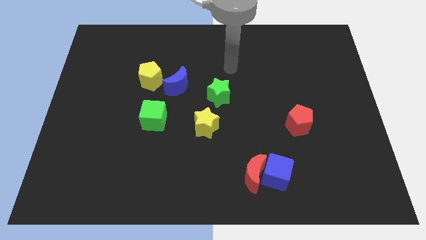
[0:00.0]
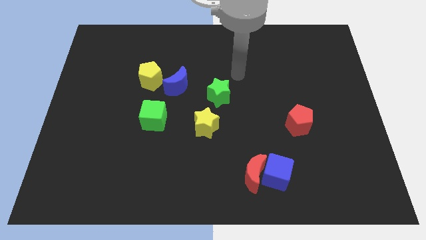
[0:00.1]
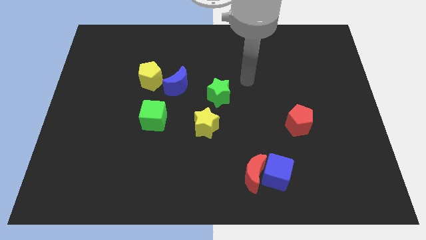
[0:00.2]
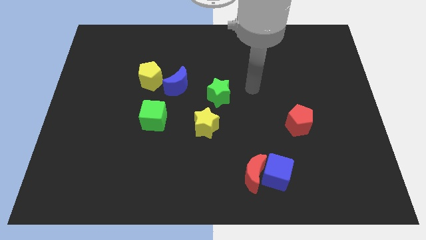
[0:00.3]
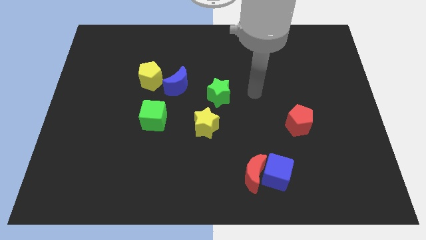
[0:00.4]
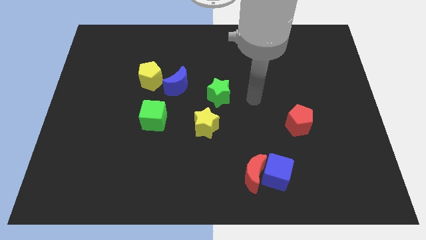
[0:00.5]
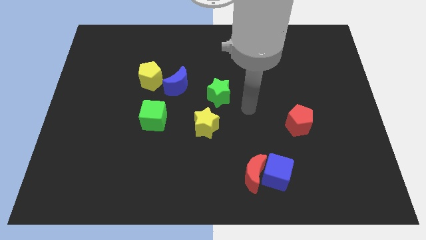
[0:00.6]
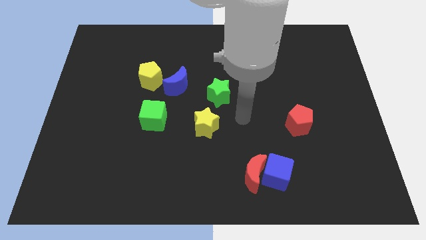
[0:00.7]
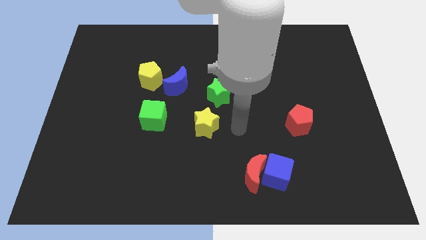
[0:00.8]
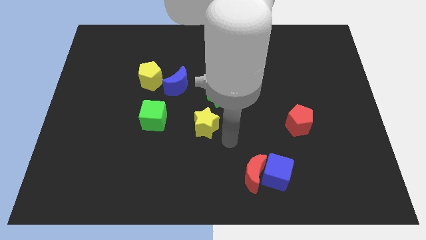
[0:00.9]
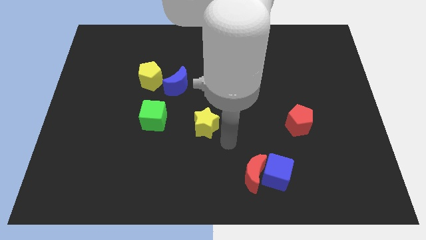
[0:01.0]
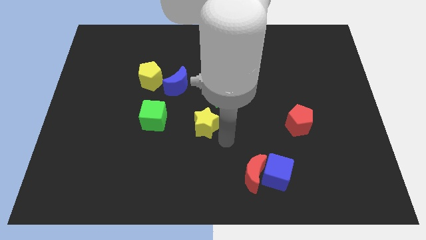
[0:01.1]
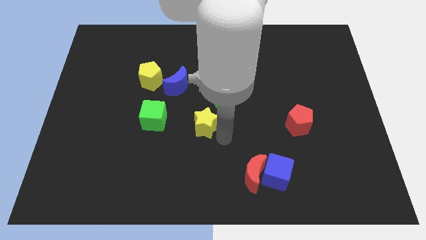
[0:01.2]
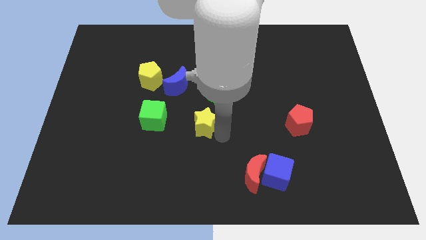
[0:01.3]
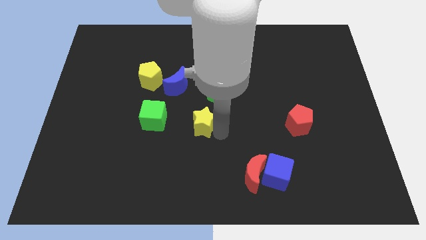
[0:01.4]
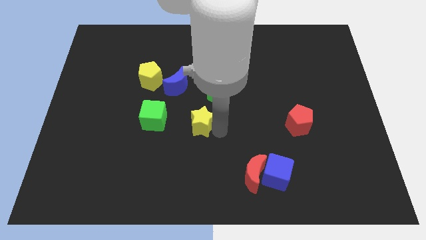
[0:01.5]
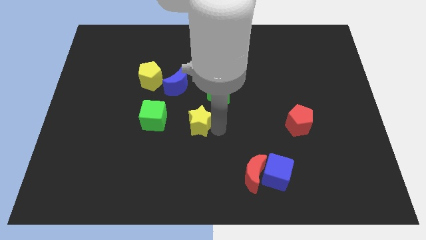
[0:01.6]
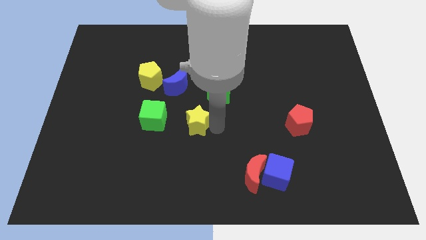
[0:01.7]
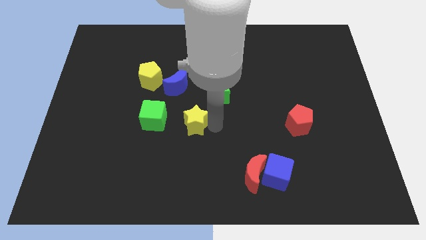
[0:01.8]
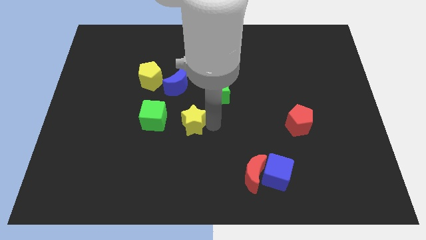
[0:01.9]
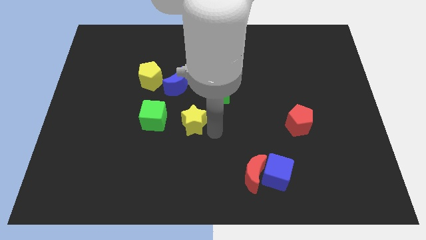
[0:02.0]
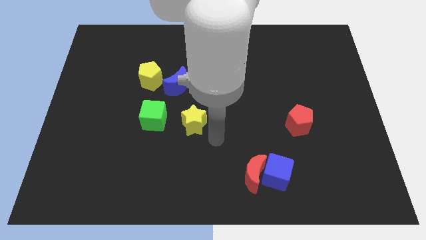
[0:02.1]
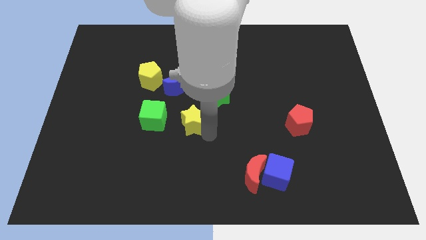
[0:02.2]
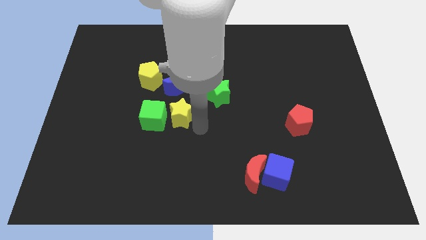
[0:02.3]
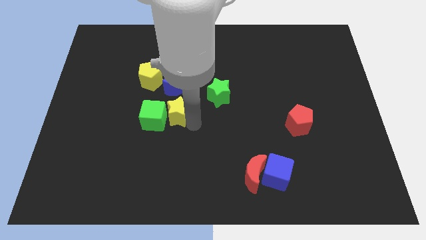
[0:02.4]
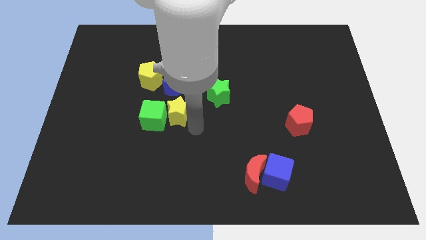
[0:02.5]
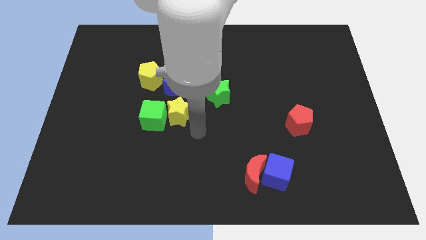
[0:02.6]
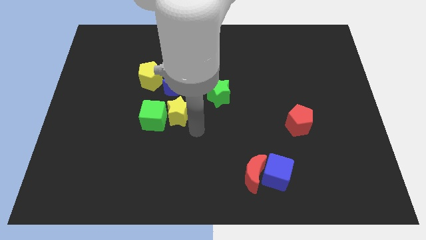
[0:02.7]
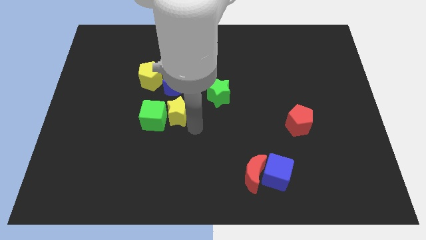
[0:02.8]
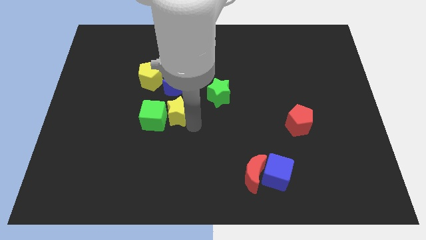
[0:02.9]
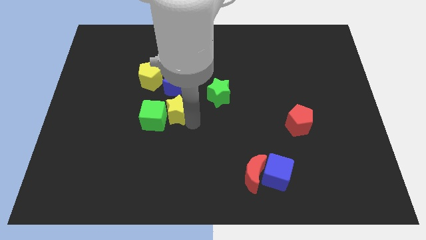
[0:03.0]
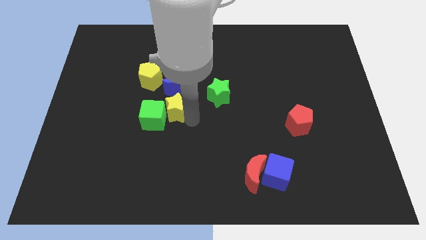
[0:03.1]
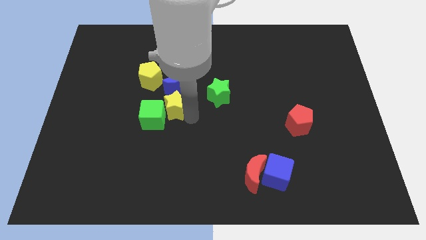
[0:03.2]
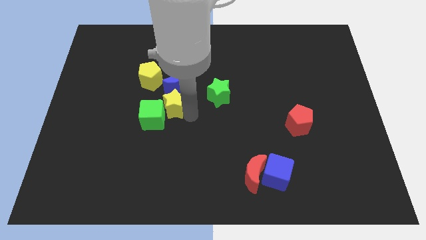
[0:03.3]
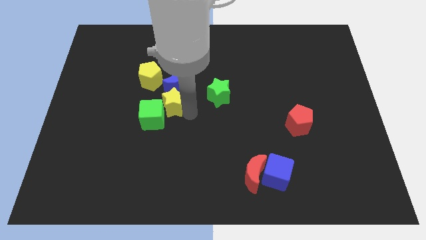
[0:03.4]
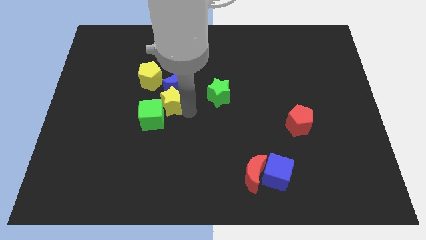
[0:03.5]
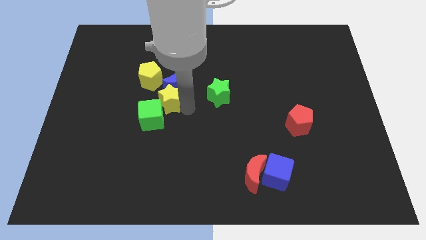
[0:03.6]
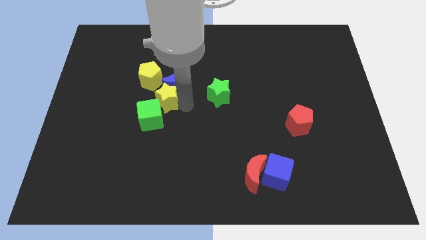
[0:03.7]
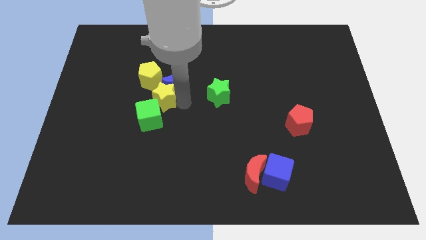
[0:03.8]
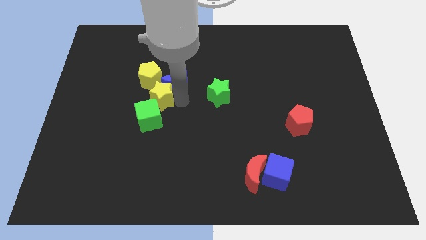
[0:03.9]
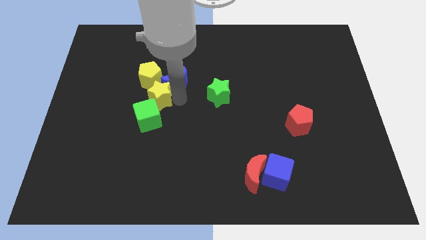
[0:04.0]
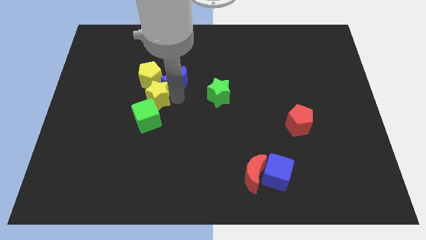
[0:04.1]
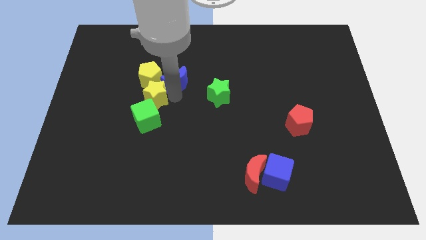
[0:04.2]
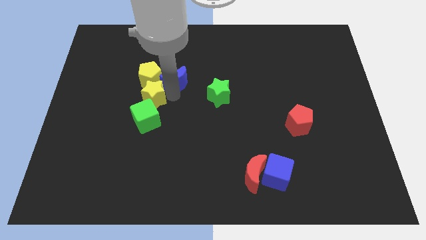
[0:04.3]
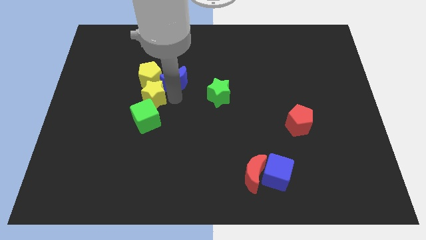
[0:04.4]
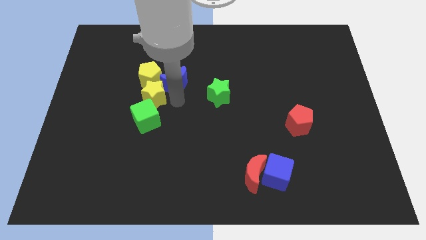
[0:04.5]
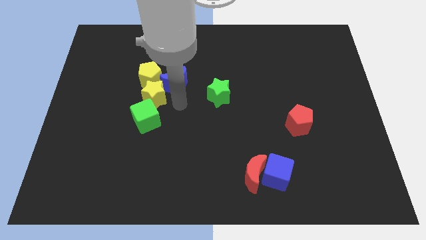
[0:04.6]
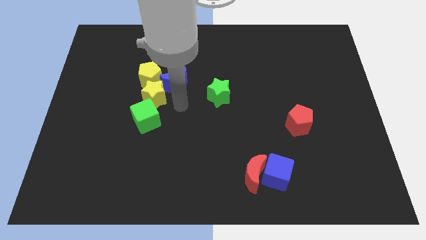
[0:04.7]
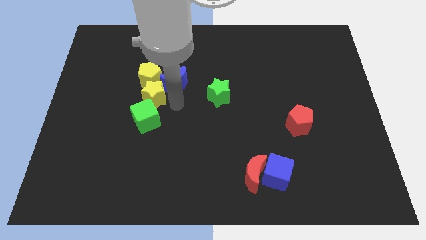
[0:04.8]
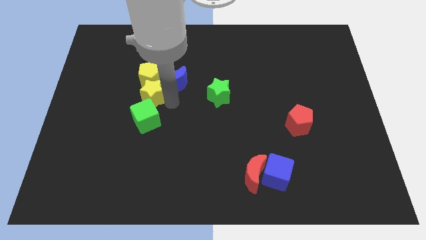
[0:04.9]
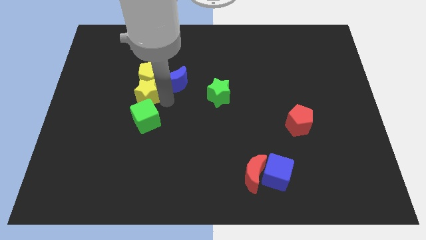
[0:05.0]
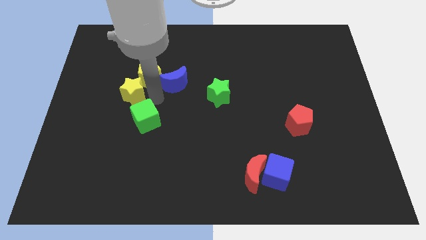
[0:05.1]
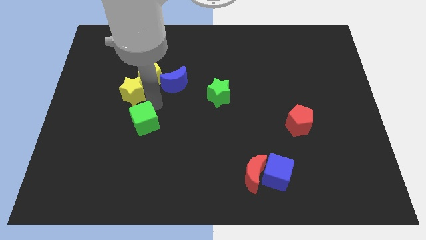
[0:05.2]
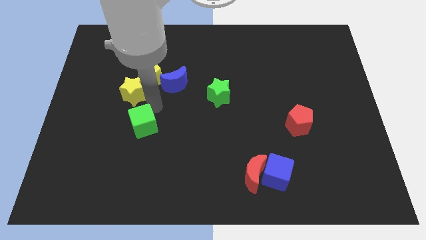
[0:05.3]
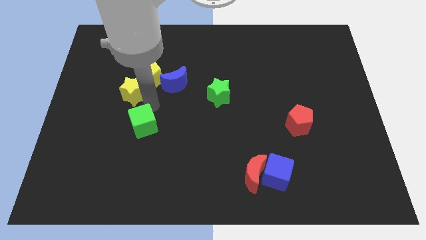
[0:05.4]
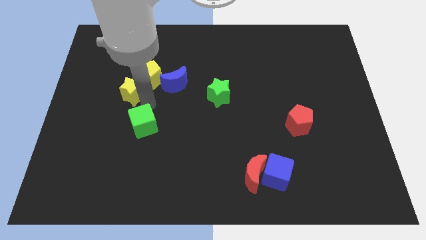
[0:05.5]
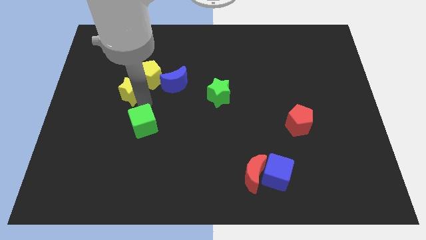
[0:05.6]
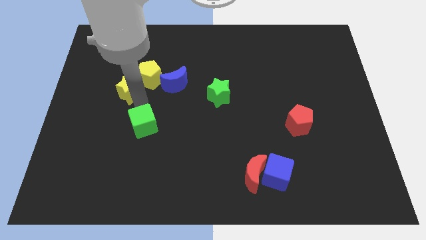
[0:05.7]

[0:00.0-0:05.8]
slide the yellow star left of the yellow pentagon

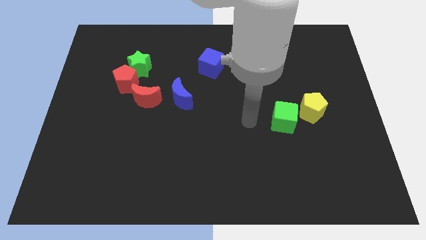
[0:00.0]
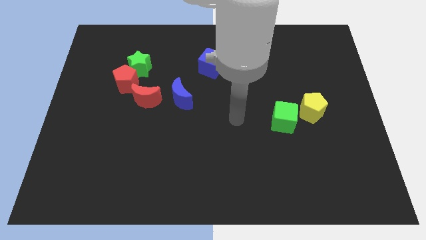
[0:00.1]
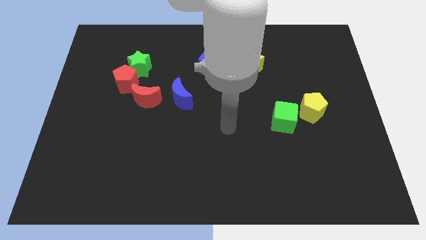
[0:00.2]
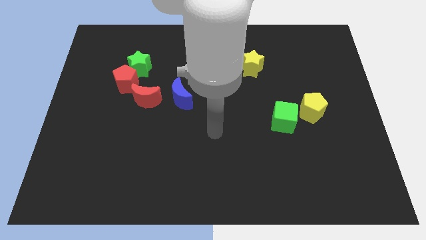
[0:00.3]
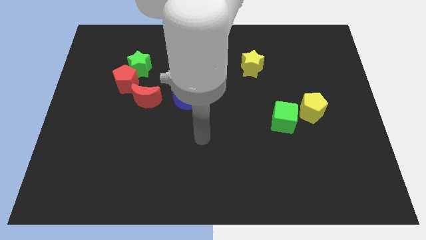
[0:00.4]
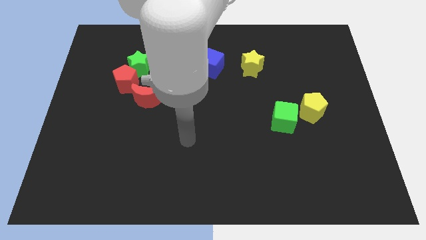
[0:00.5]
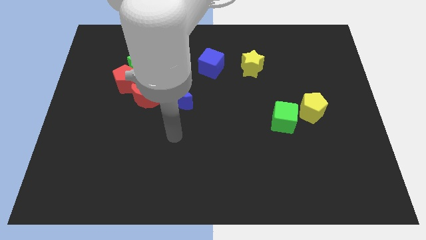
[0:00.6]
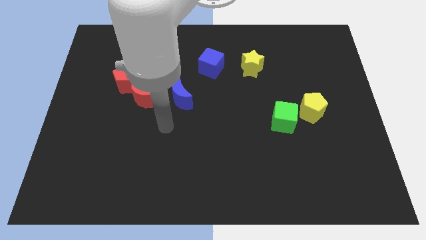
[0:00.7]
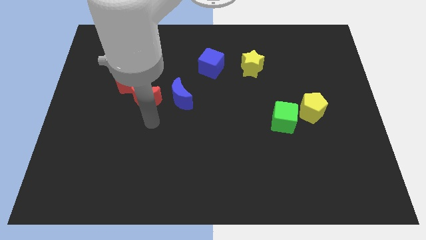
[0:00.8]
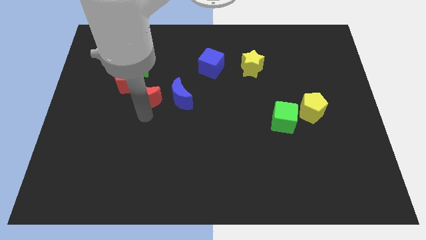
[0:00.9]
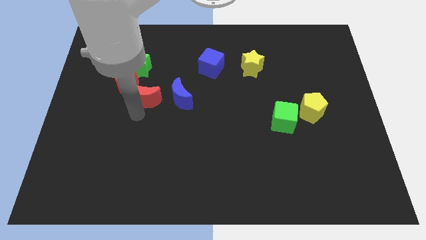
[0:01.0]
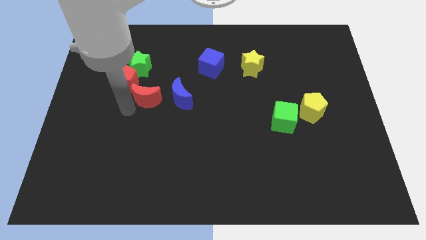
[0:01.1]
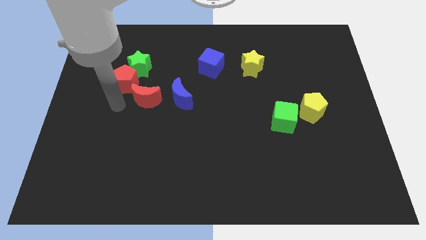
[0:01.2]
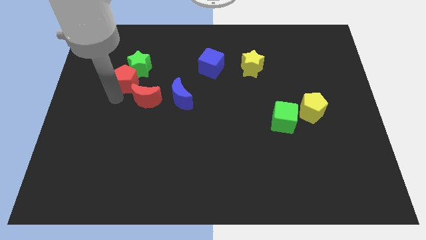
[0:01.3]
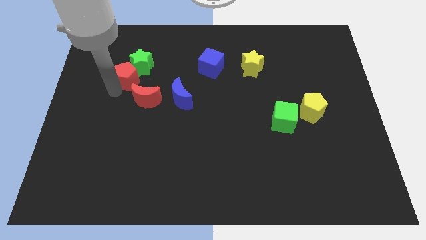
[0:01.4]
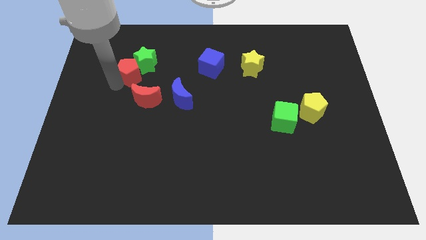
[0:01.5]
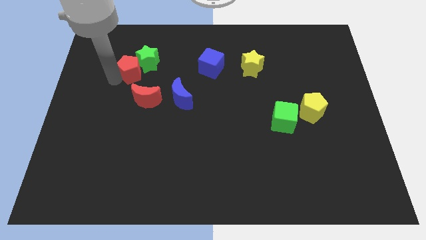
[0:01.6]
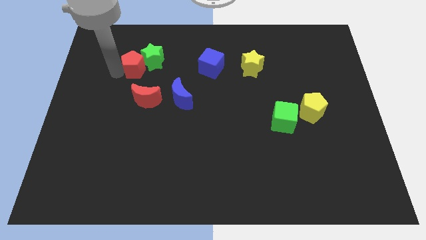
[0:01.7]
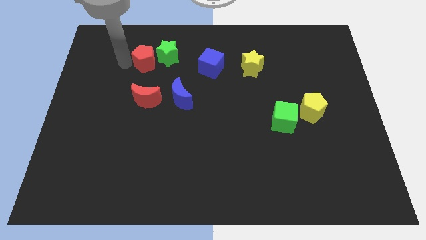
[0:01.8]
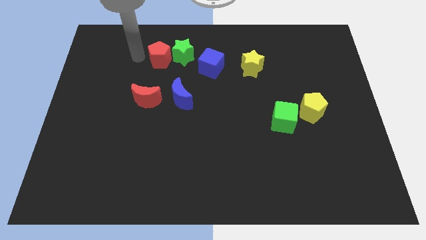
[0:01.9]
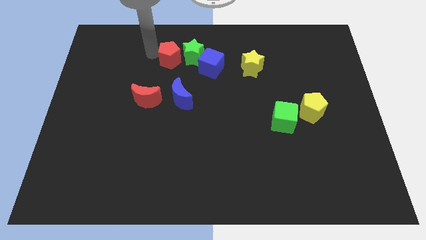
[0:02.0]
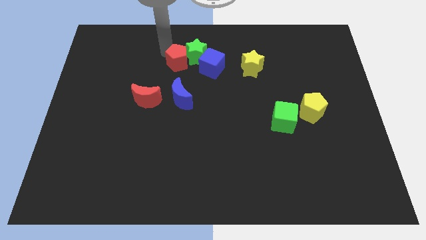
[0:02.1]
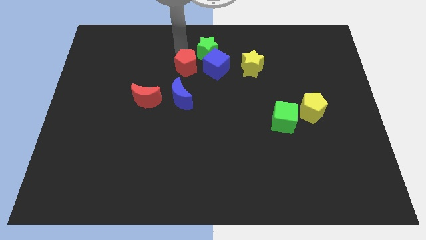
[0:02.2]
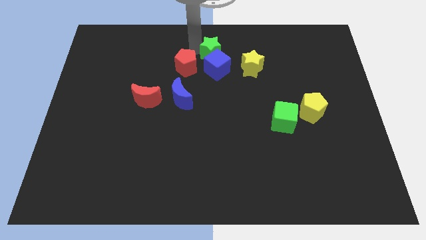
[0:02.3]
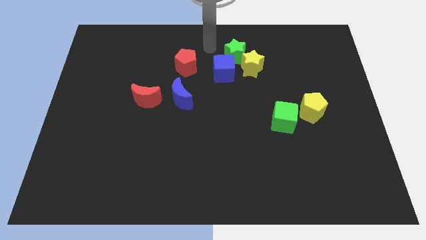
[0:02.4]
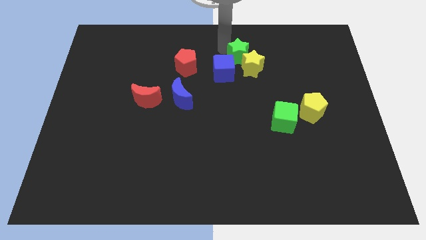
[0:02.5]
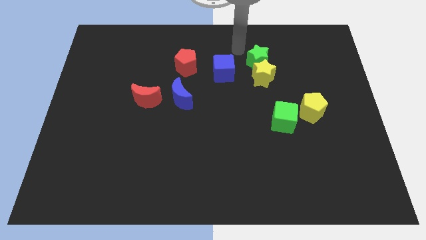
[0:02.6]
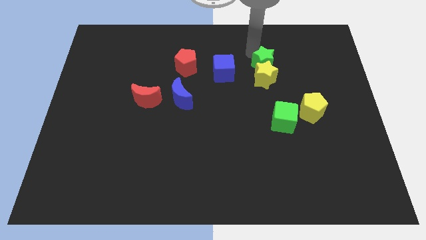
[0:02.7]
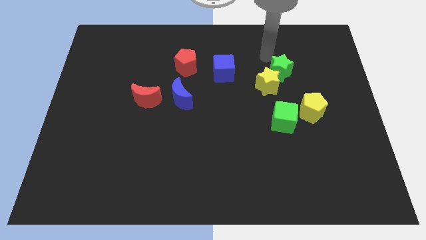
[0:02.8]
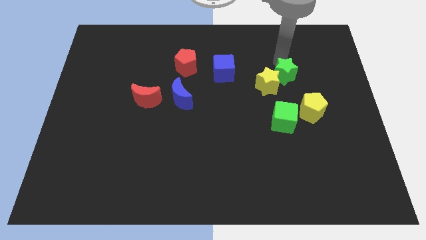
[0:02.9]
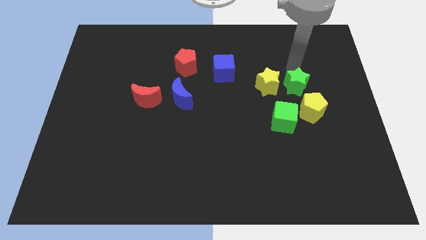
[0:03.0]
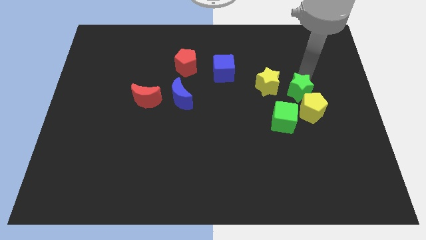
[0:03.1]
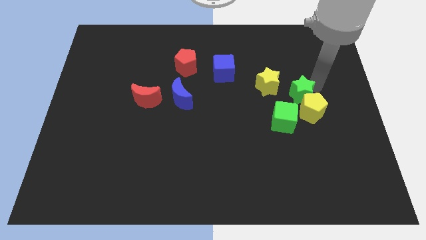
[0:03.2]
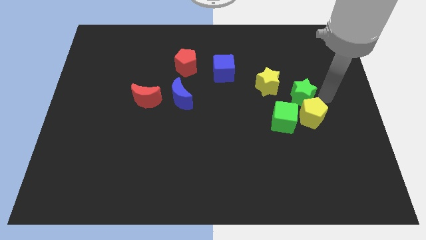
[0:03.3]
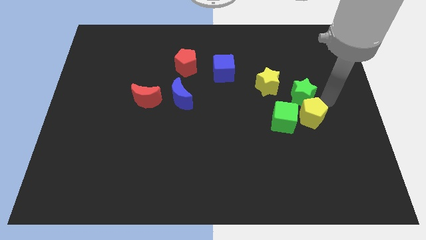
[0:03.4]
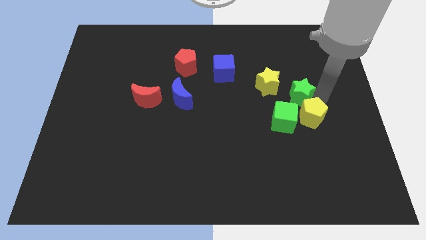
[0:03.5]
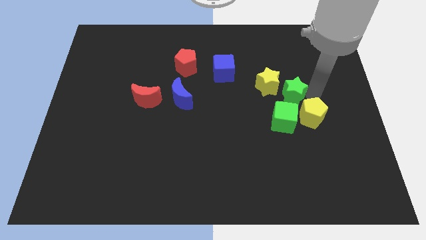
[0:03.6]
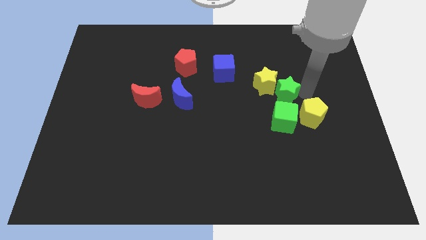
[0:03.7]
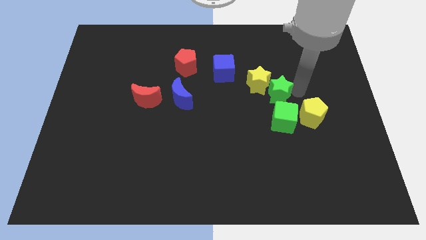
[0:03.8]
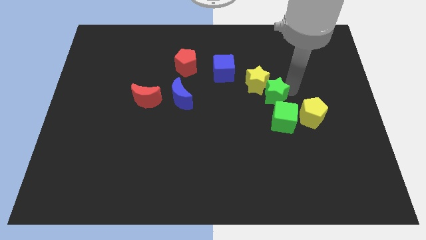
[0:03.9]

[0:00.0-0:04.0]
move the green star to the top left side of the green cube
